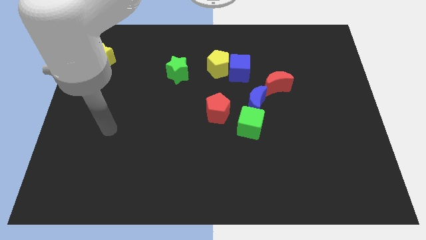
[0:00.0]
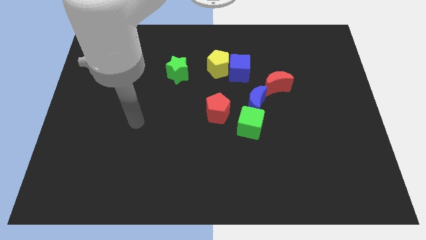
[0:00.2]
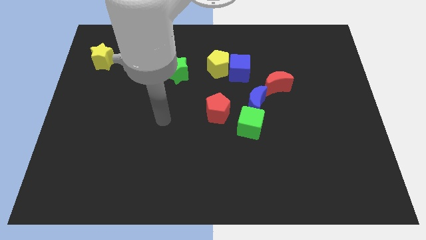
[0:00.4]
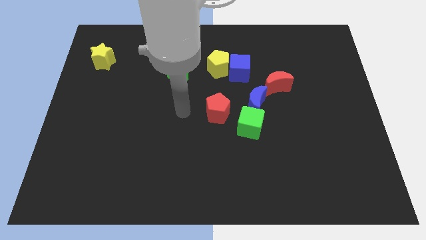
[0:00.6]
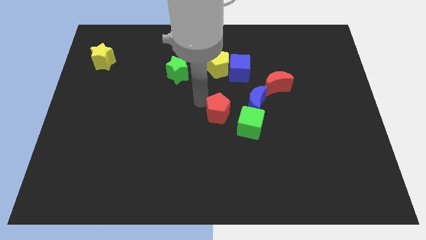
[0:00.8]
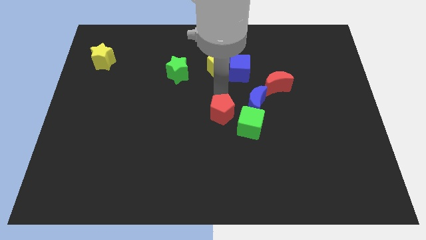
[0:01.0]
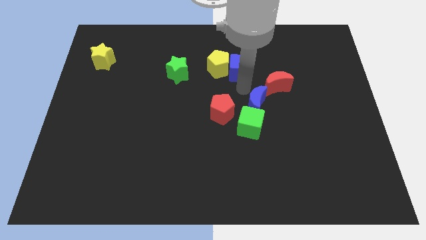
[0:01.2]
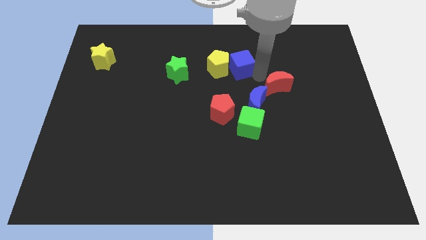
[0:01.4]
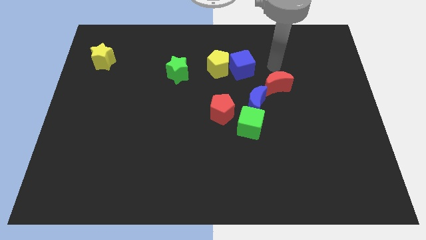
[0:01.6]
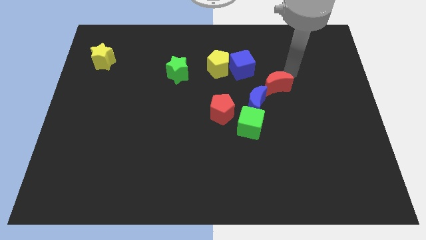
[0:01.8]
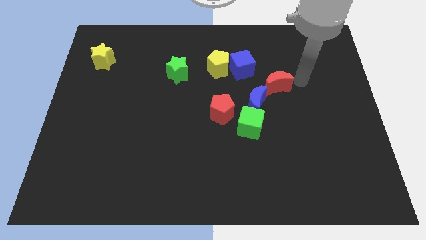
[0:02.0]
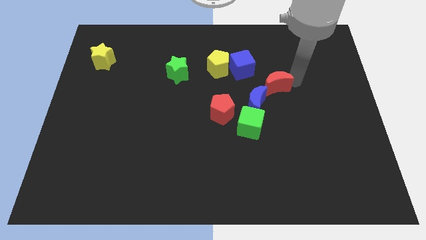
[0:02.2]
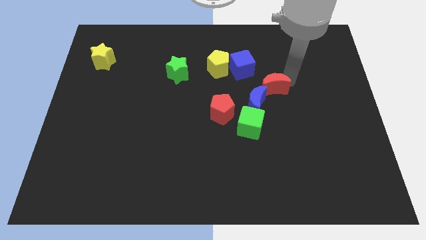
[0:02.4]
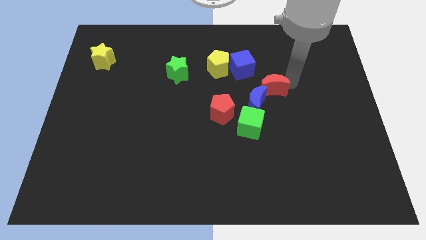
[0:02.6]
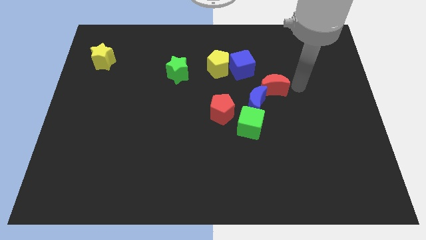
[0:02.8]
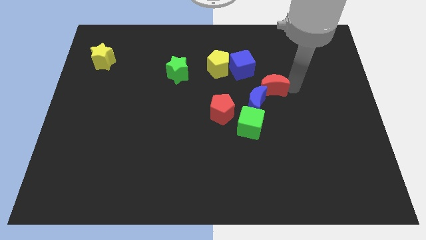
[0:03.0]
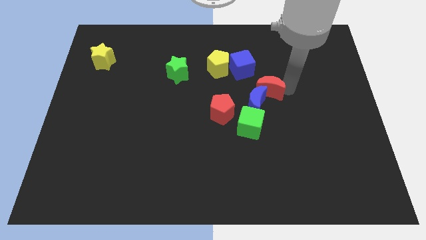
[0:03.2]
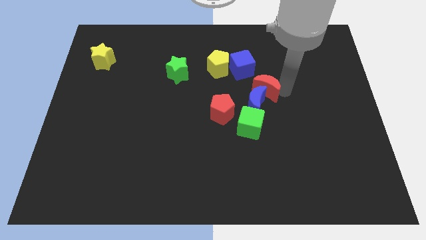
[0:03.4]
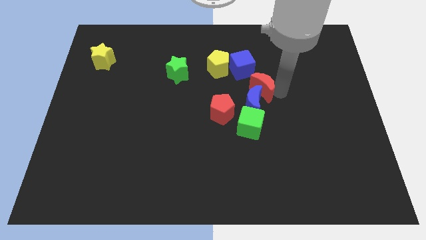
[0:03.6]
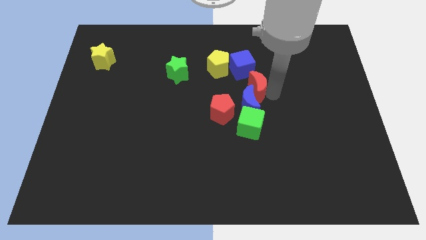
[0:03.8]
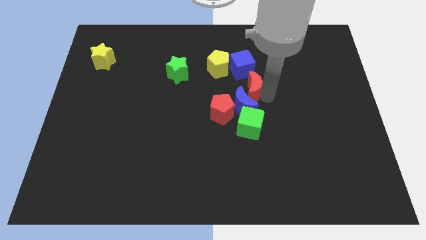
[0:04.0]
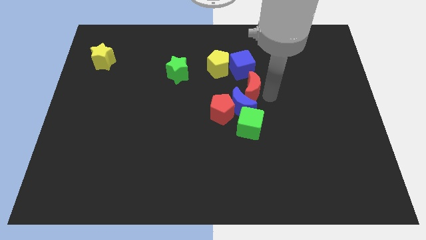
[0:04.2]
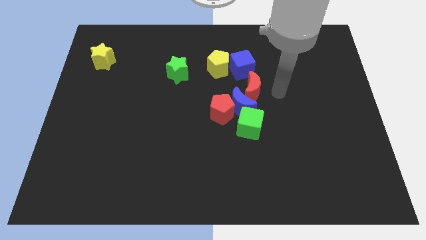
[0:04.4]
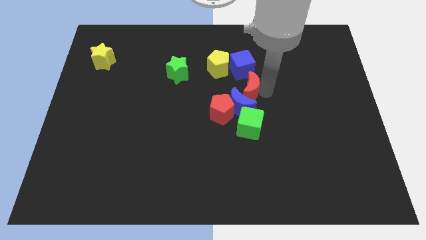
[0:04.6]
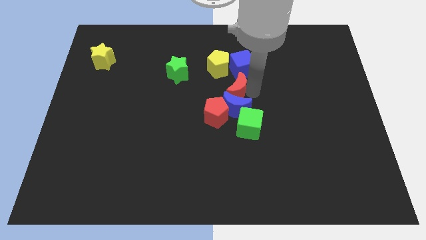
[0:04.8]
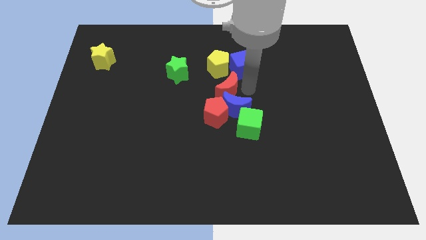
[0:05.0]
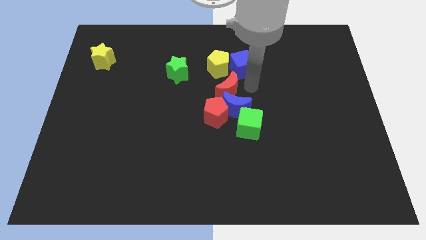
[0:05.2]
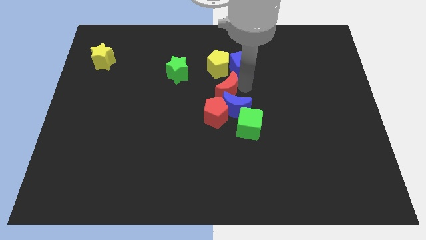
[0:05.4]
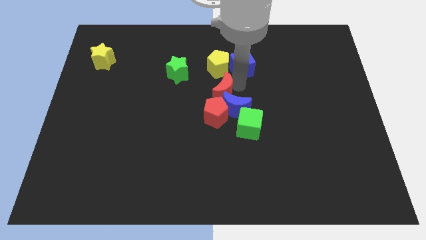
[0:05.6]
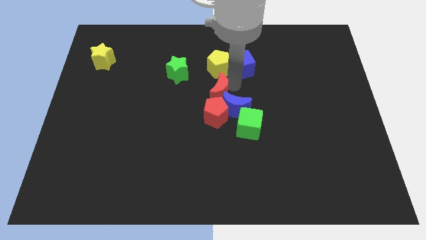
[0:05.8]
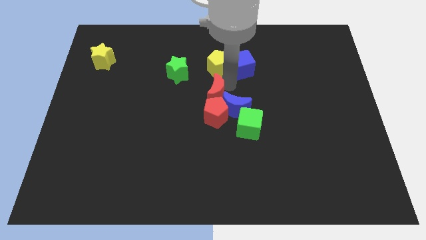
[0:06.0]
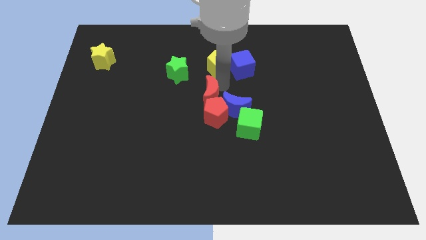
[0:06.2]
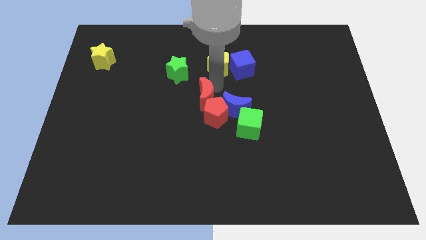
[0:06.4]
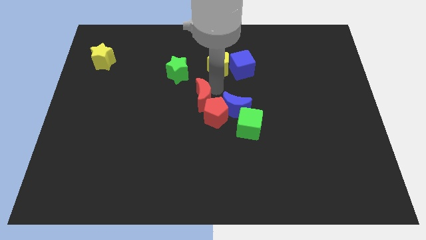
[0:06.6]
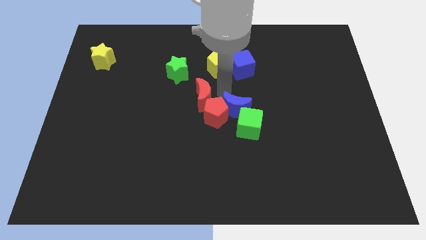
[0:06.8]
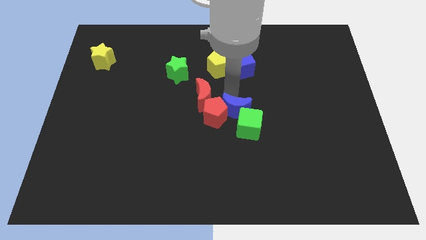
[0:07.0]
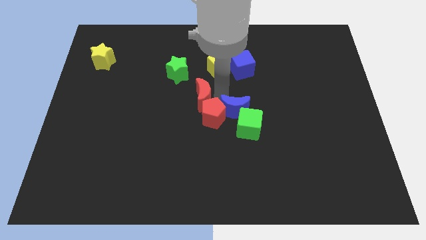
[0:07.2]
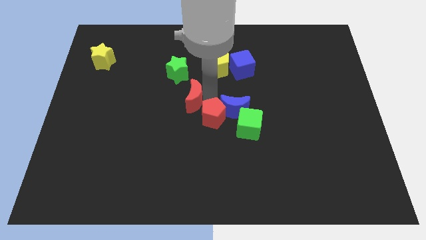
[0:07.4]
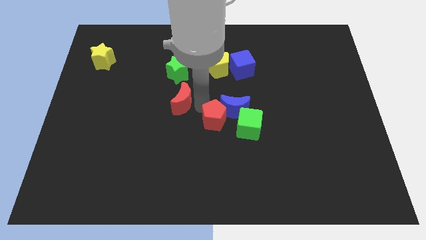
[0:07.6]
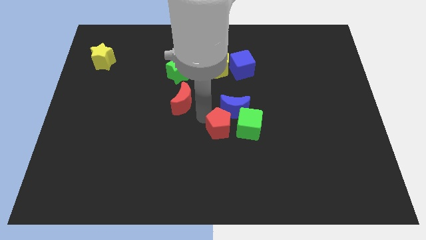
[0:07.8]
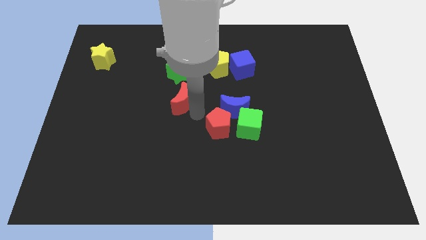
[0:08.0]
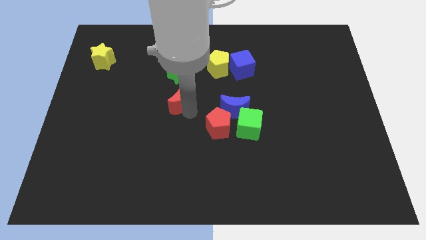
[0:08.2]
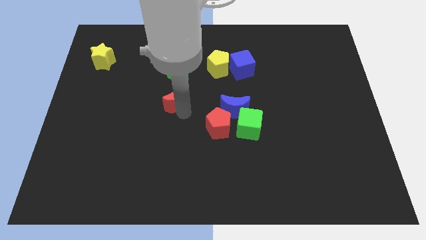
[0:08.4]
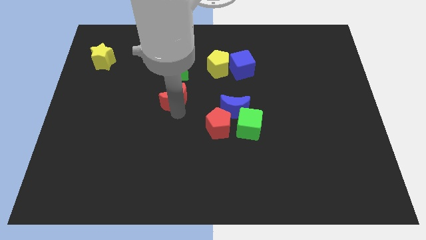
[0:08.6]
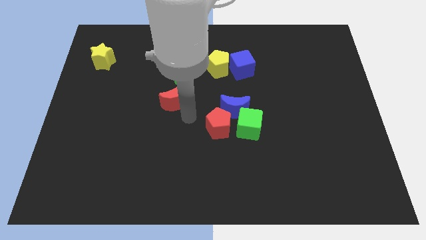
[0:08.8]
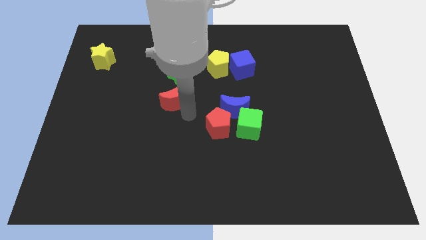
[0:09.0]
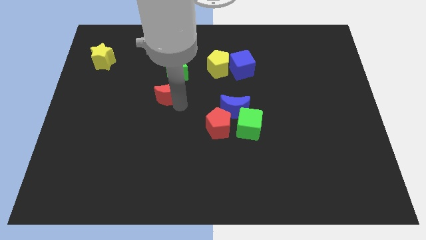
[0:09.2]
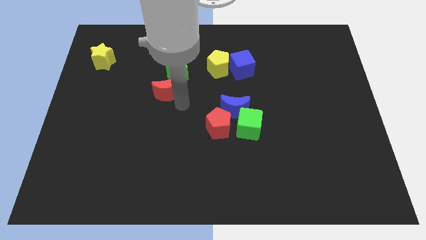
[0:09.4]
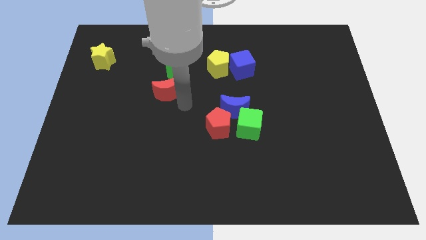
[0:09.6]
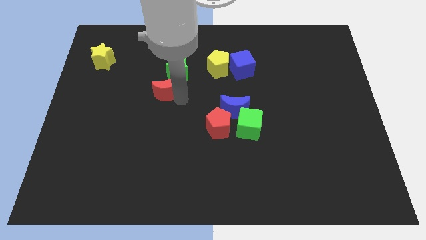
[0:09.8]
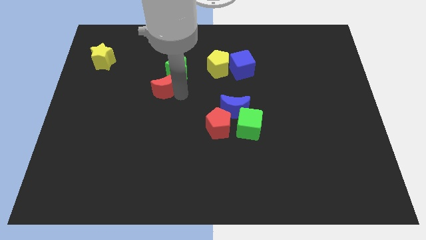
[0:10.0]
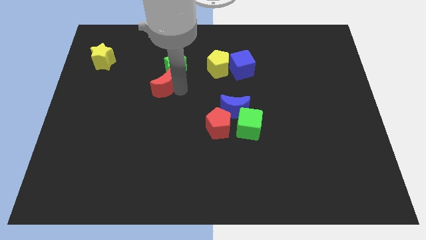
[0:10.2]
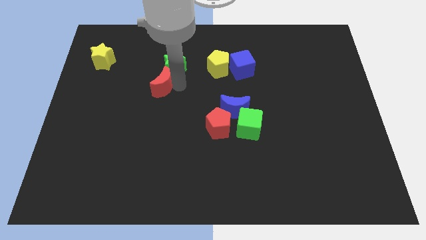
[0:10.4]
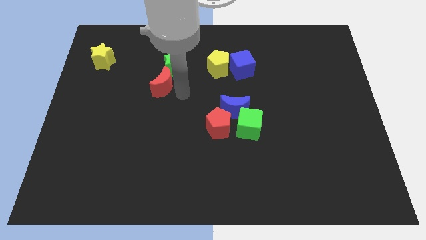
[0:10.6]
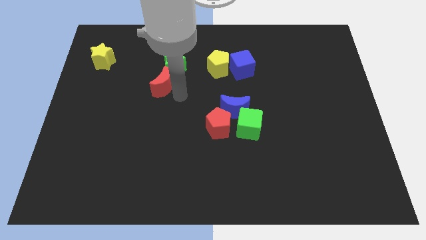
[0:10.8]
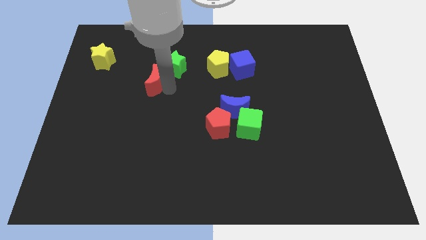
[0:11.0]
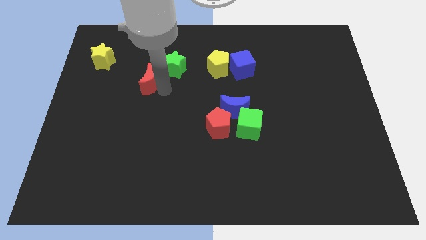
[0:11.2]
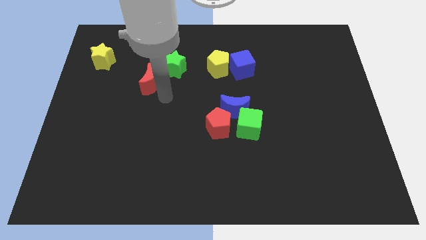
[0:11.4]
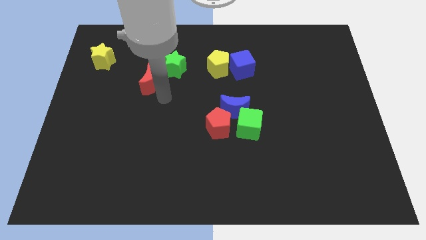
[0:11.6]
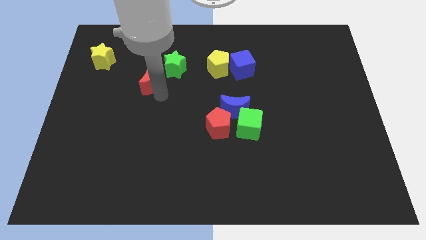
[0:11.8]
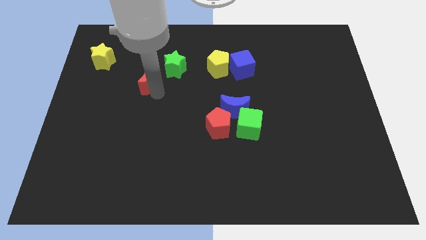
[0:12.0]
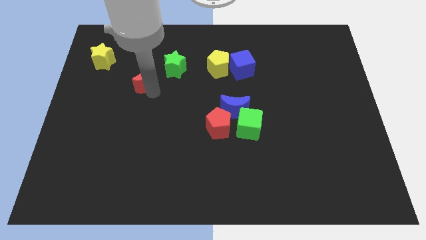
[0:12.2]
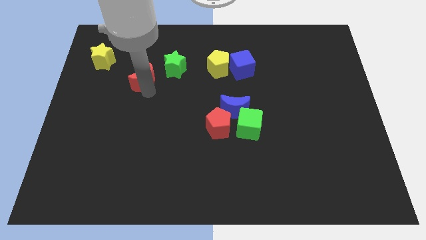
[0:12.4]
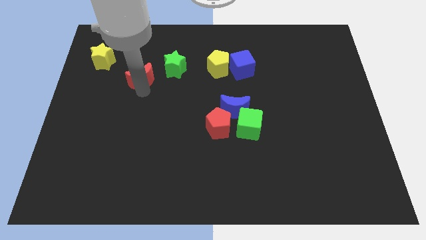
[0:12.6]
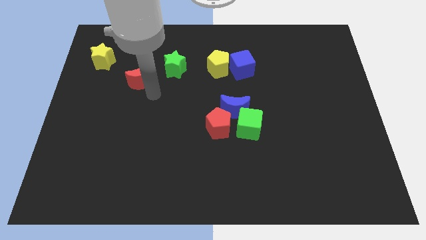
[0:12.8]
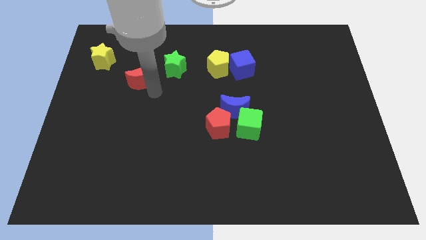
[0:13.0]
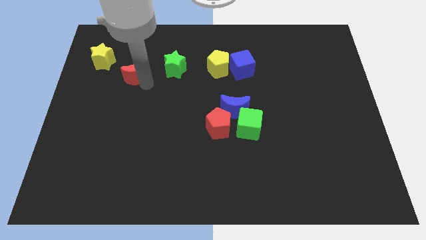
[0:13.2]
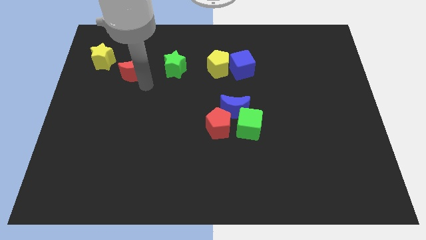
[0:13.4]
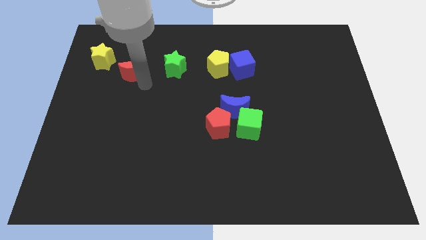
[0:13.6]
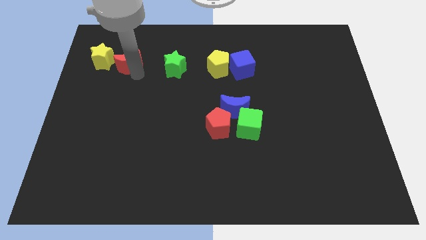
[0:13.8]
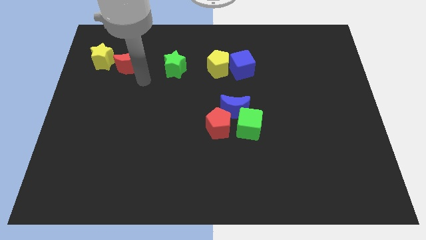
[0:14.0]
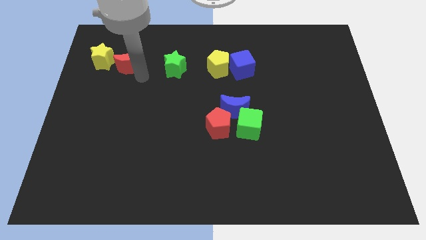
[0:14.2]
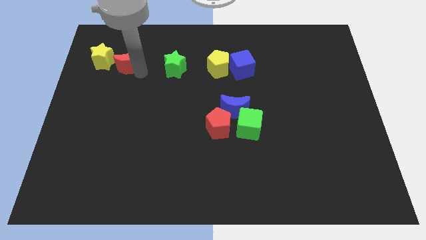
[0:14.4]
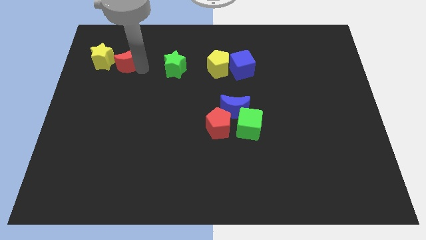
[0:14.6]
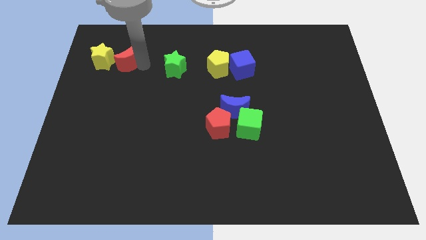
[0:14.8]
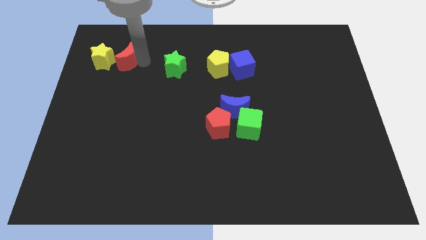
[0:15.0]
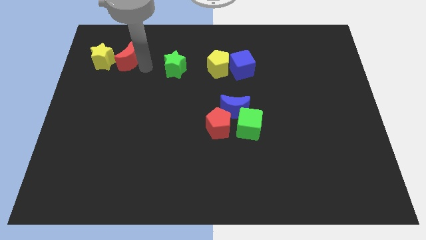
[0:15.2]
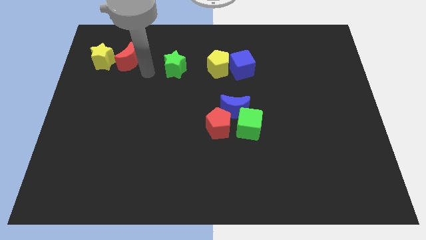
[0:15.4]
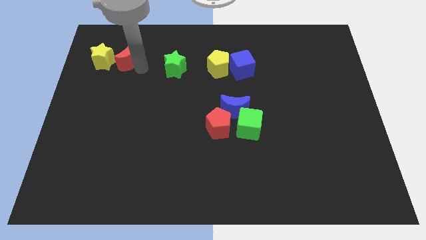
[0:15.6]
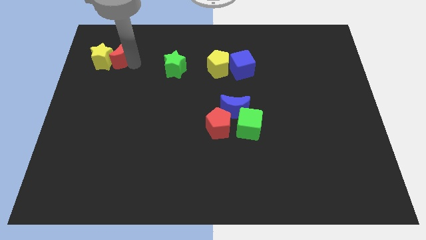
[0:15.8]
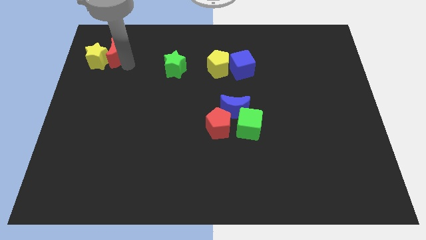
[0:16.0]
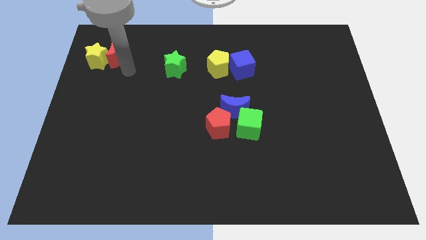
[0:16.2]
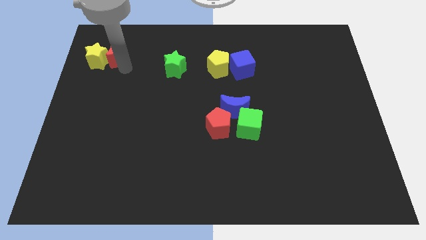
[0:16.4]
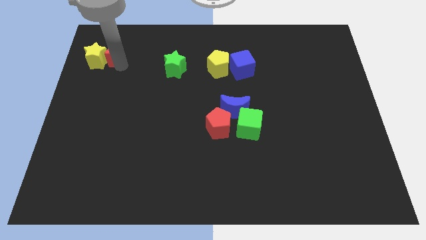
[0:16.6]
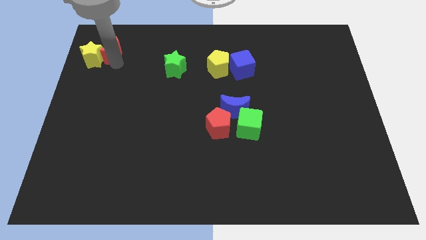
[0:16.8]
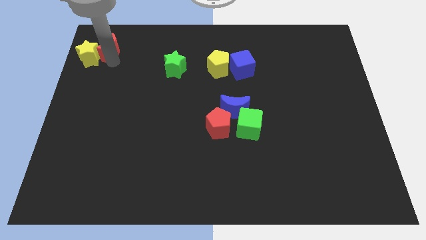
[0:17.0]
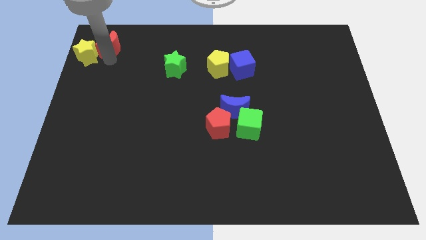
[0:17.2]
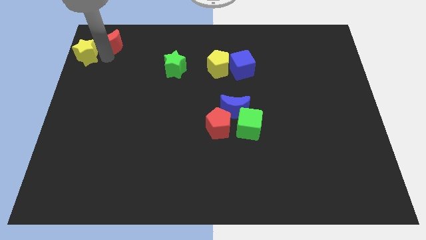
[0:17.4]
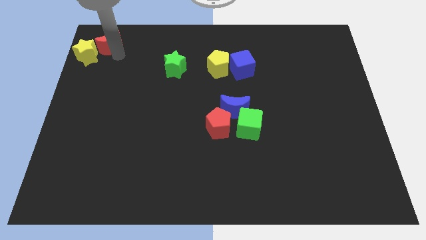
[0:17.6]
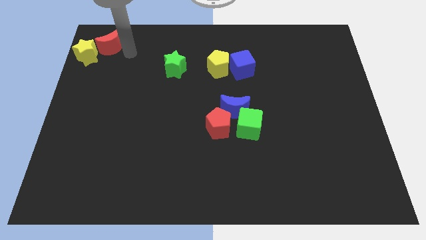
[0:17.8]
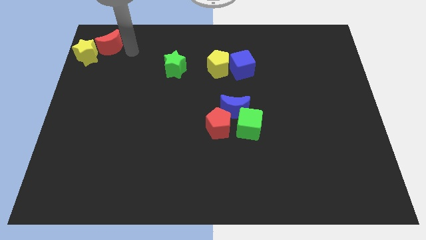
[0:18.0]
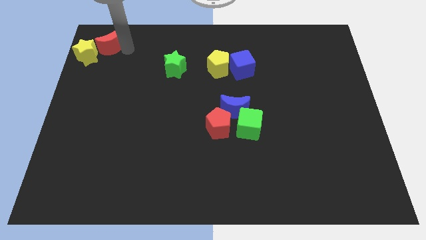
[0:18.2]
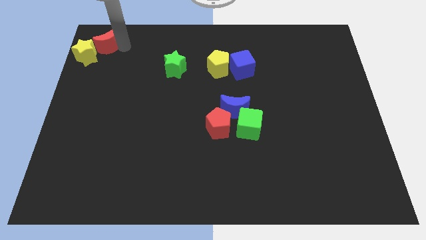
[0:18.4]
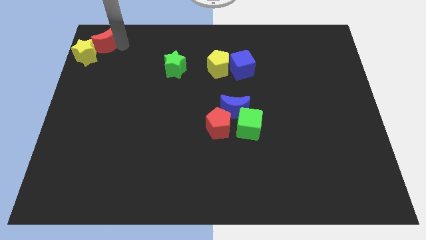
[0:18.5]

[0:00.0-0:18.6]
move the red moon to the top left corner
